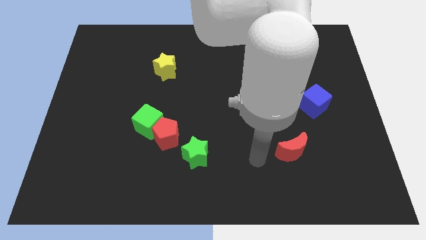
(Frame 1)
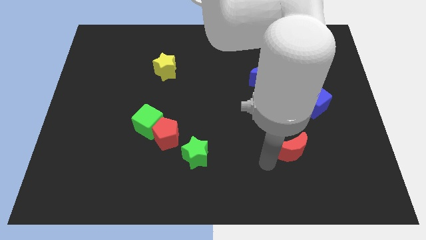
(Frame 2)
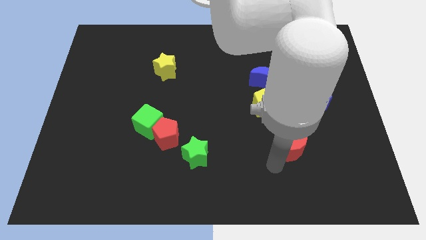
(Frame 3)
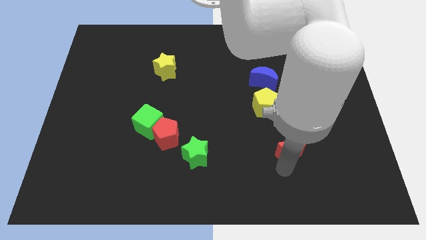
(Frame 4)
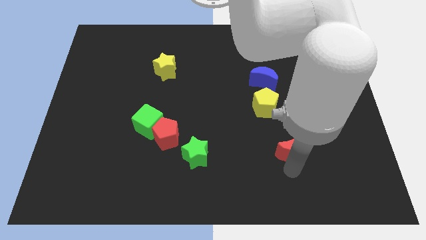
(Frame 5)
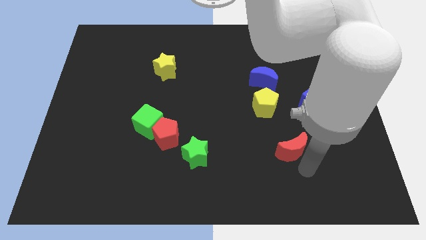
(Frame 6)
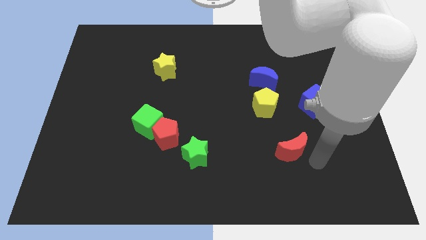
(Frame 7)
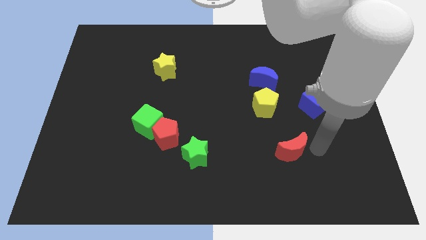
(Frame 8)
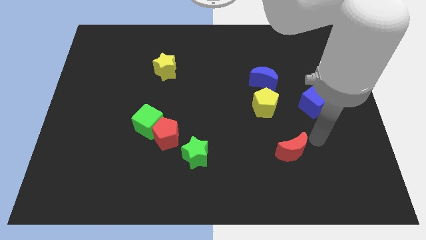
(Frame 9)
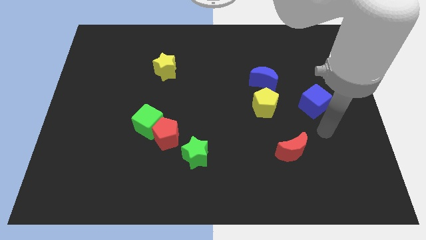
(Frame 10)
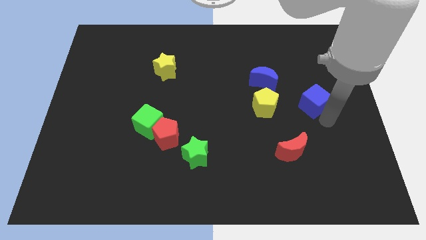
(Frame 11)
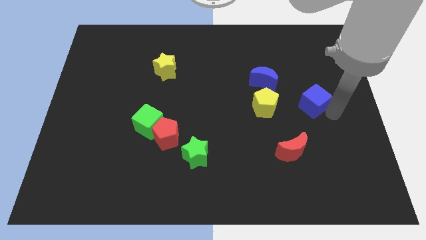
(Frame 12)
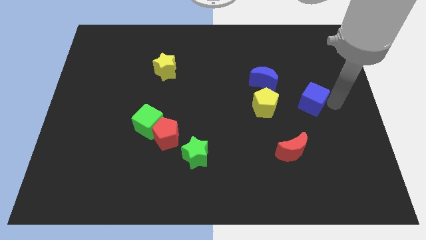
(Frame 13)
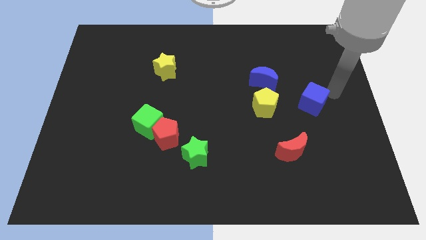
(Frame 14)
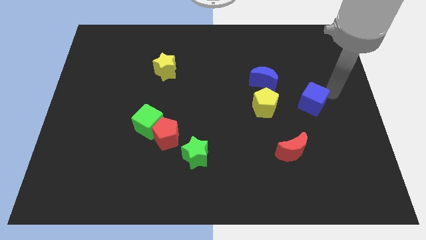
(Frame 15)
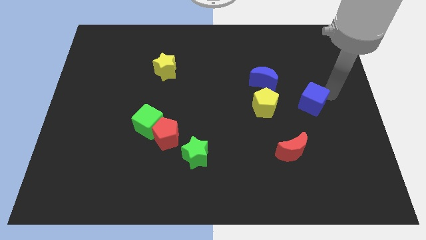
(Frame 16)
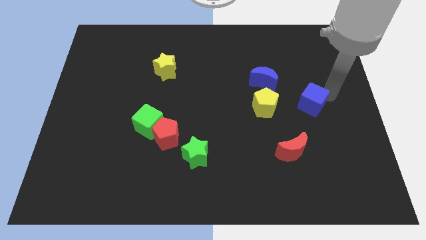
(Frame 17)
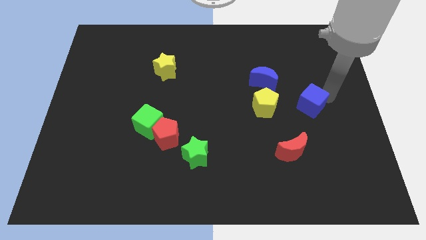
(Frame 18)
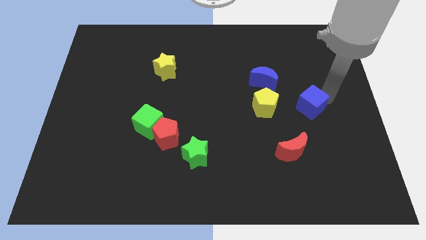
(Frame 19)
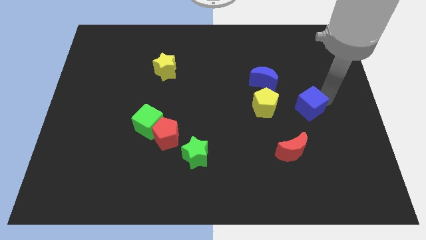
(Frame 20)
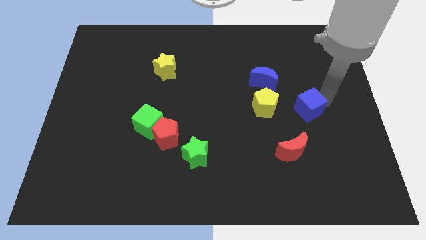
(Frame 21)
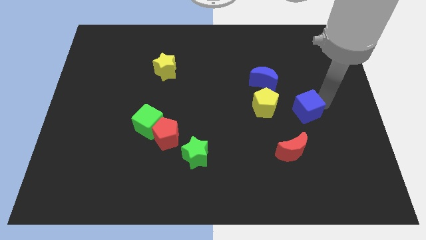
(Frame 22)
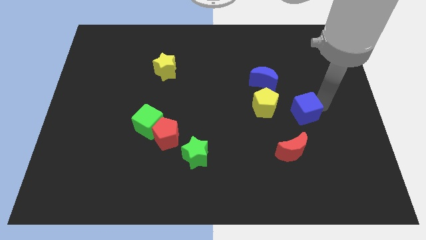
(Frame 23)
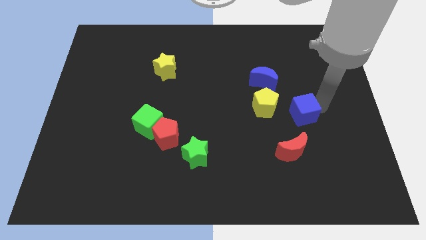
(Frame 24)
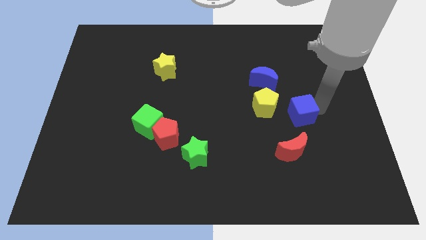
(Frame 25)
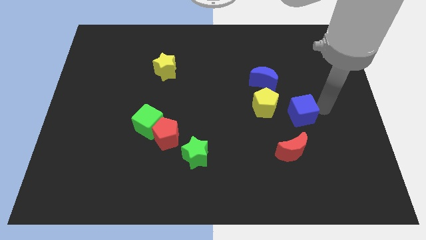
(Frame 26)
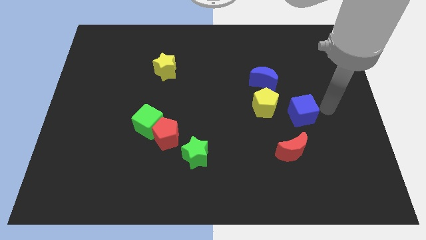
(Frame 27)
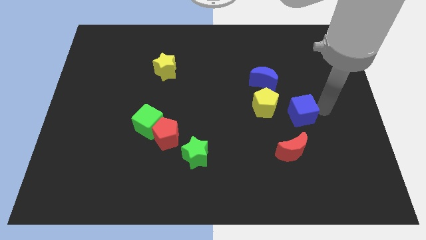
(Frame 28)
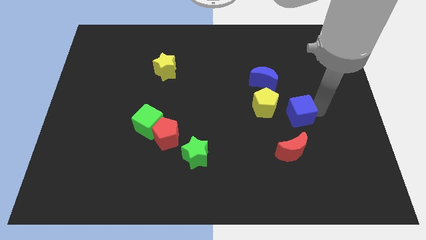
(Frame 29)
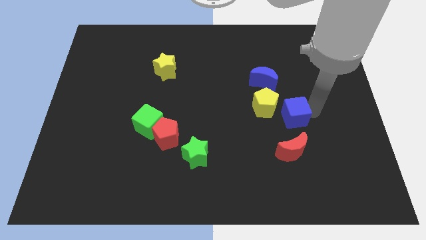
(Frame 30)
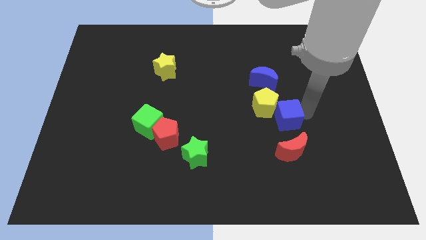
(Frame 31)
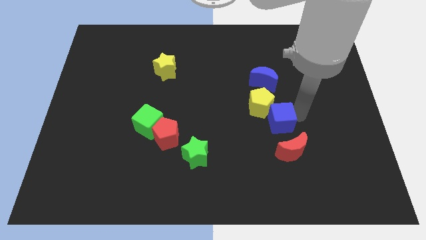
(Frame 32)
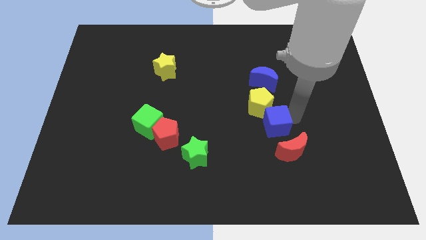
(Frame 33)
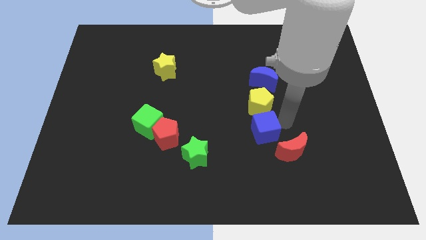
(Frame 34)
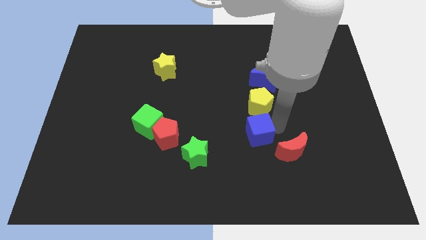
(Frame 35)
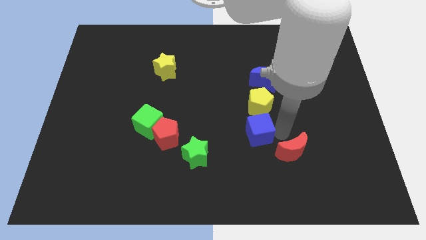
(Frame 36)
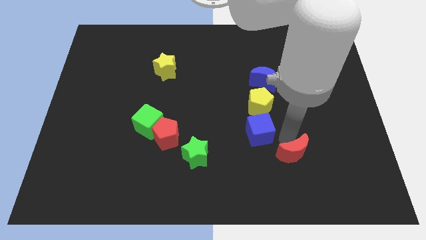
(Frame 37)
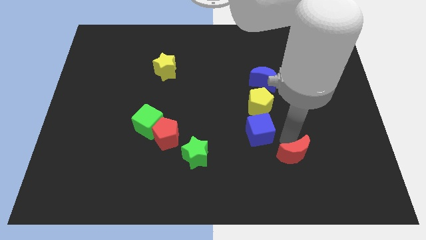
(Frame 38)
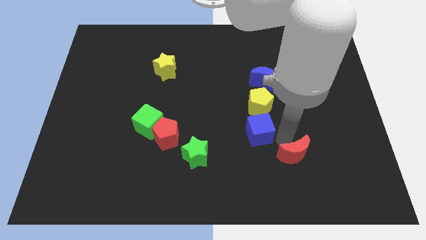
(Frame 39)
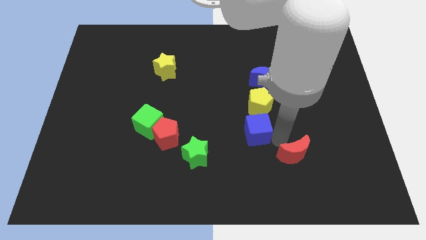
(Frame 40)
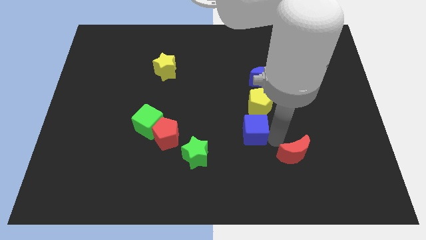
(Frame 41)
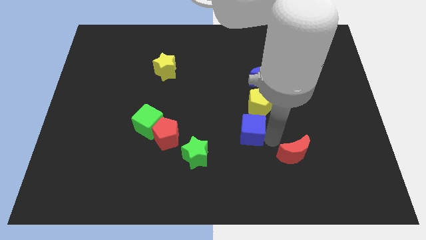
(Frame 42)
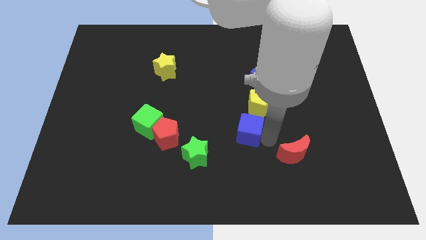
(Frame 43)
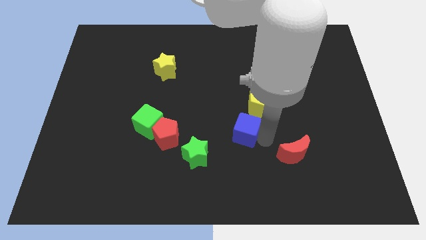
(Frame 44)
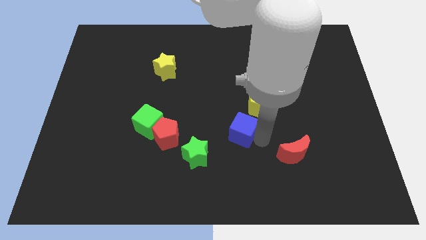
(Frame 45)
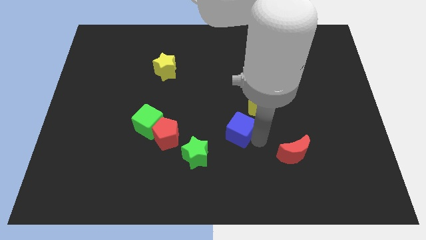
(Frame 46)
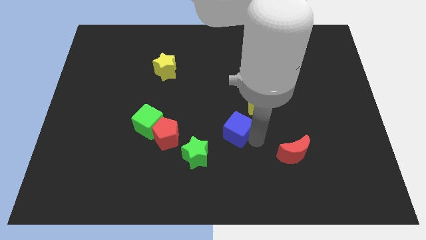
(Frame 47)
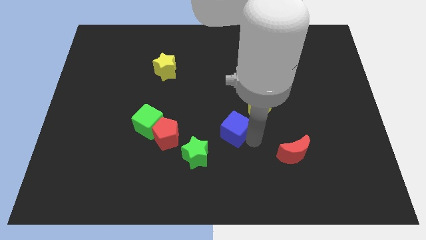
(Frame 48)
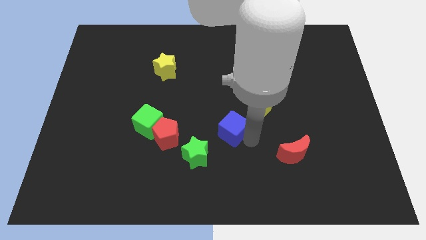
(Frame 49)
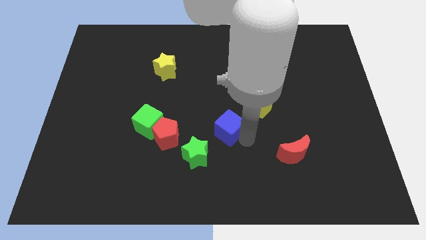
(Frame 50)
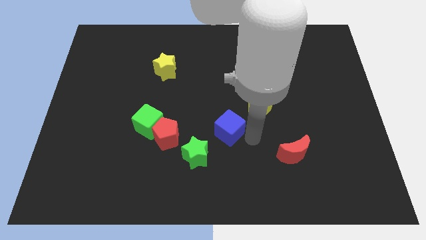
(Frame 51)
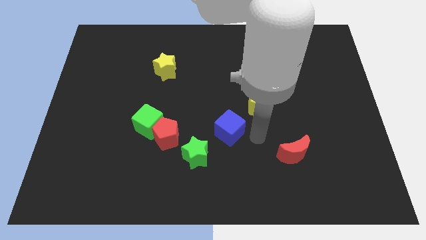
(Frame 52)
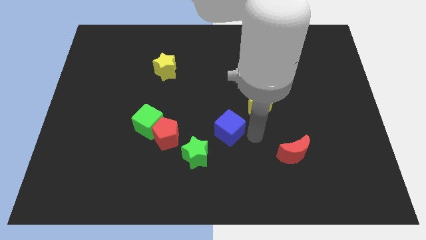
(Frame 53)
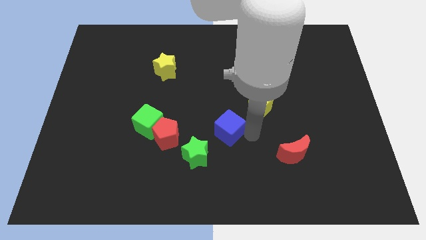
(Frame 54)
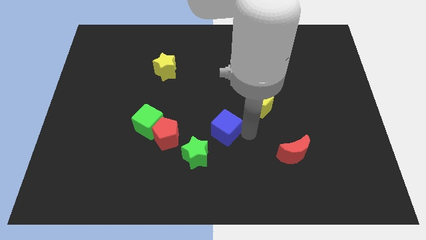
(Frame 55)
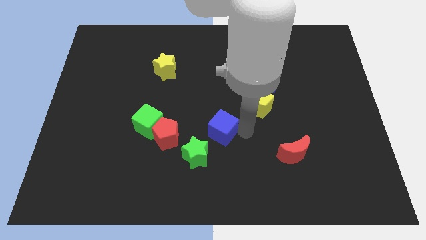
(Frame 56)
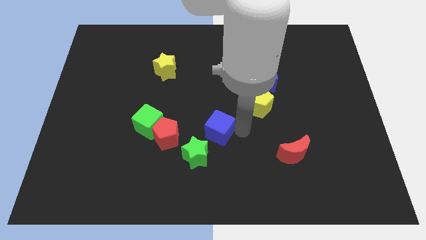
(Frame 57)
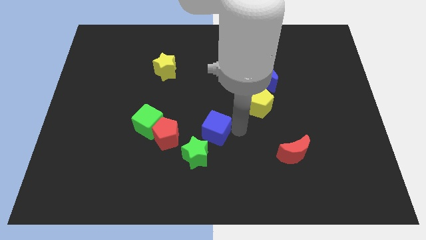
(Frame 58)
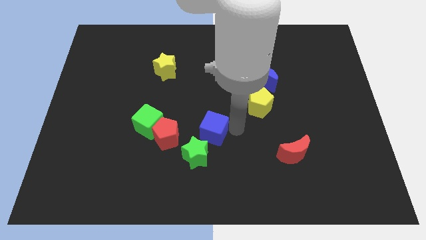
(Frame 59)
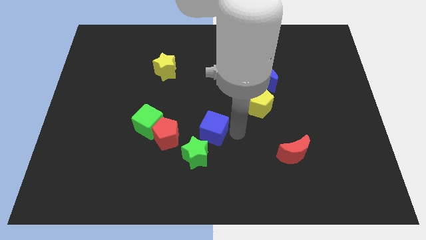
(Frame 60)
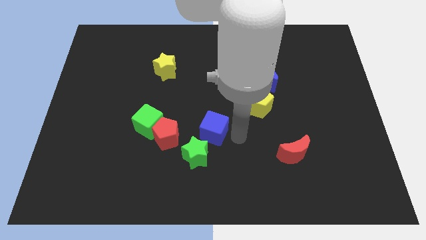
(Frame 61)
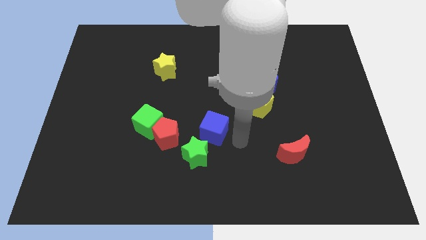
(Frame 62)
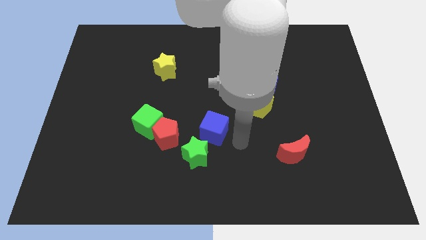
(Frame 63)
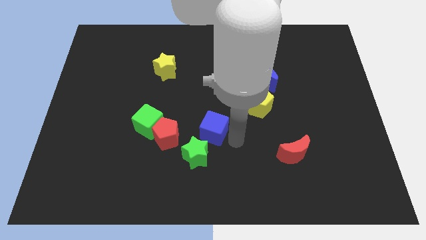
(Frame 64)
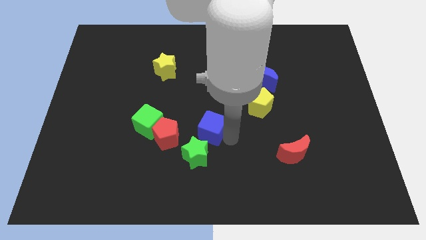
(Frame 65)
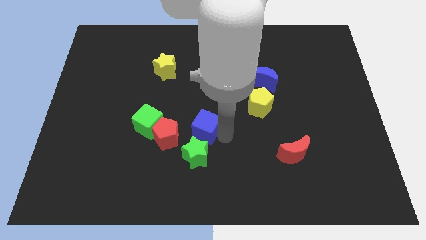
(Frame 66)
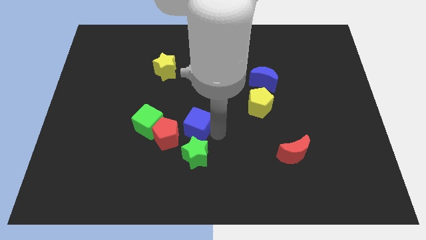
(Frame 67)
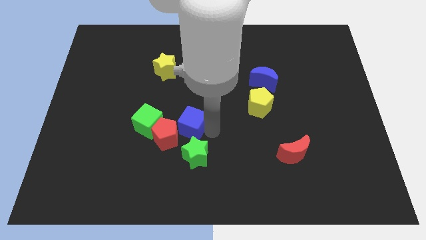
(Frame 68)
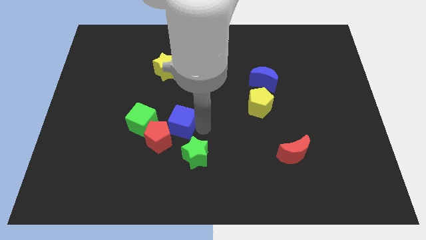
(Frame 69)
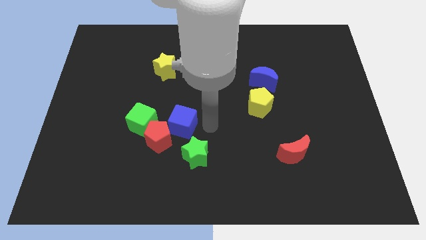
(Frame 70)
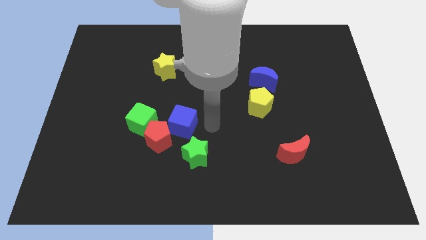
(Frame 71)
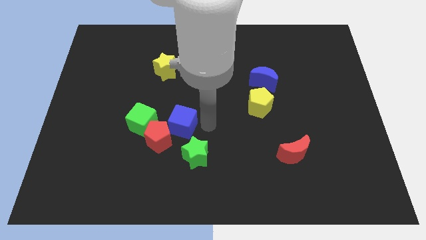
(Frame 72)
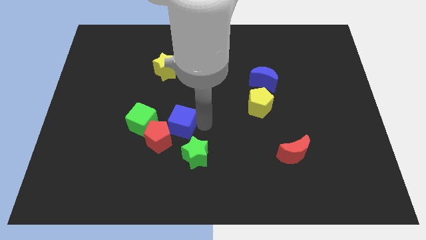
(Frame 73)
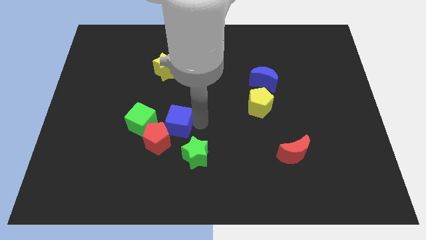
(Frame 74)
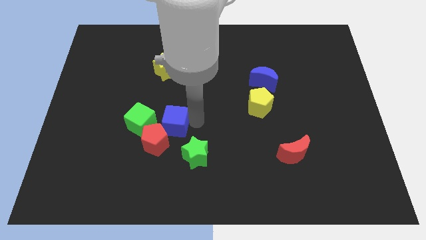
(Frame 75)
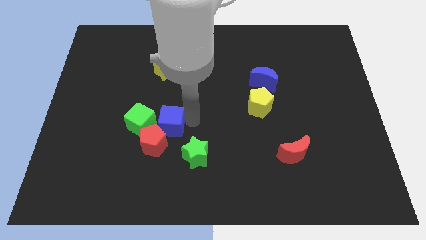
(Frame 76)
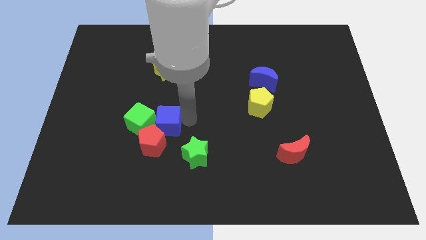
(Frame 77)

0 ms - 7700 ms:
push the blue cube close to the green cube
